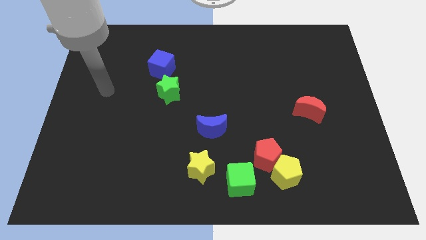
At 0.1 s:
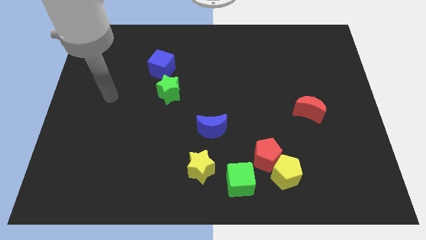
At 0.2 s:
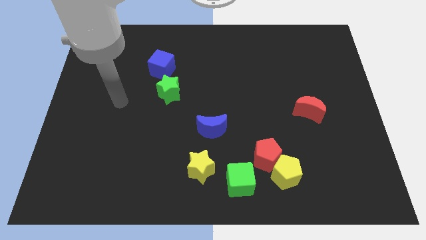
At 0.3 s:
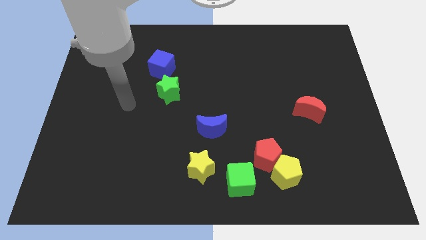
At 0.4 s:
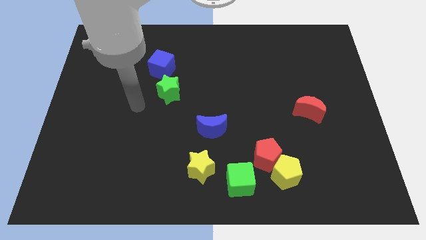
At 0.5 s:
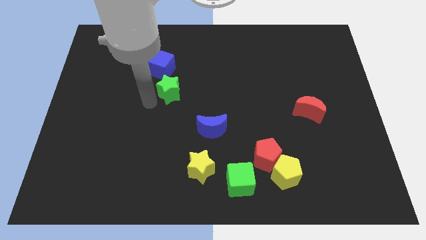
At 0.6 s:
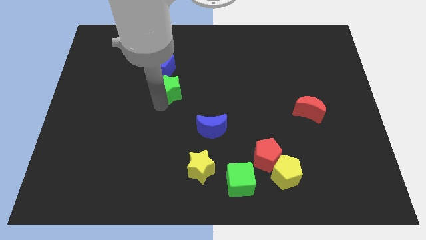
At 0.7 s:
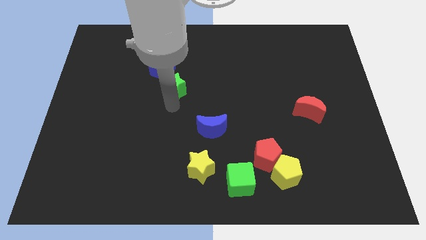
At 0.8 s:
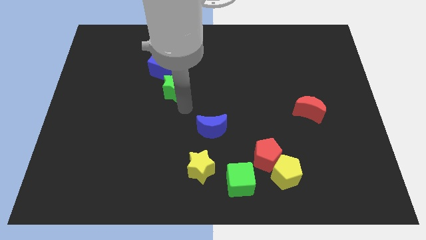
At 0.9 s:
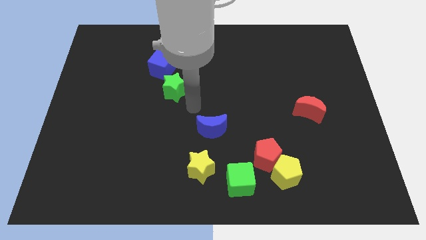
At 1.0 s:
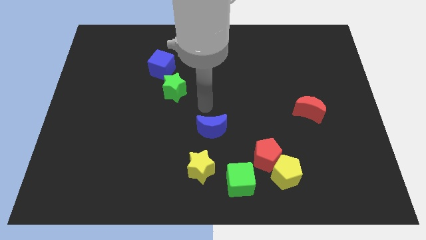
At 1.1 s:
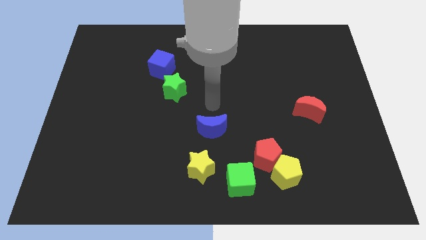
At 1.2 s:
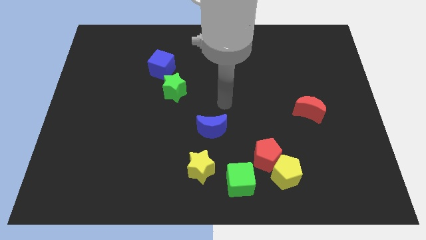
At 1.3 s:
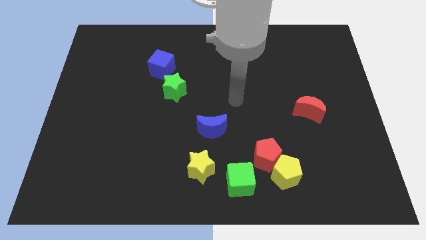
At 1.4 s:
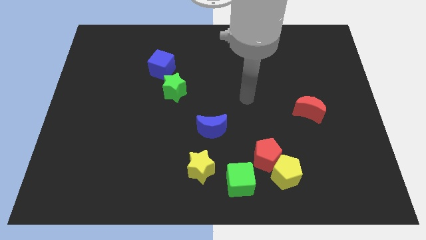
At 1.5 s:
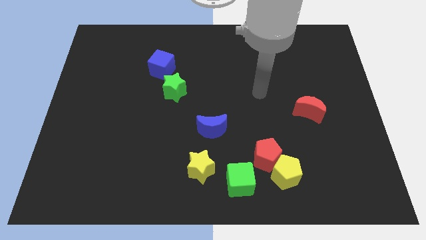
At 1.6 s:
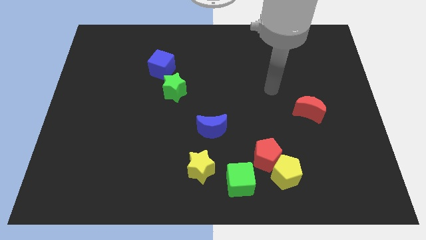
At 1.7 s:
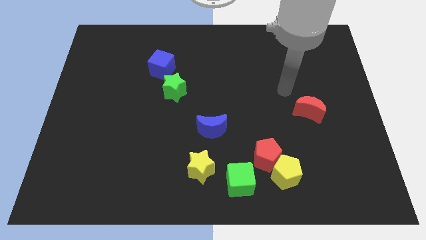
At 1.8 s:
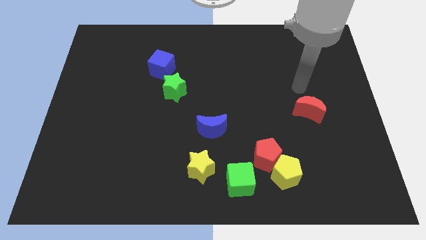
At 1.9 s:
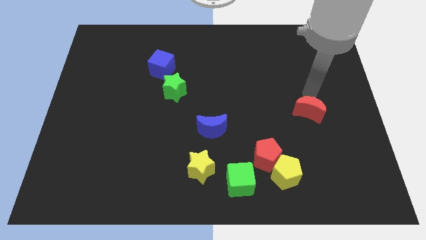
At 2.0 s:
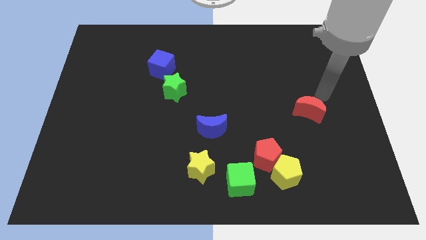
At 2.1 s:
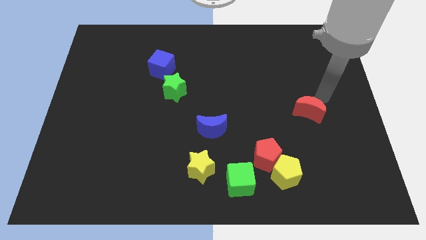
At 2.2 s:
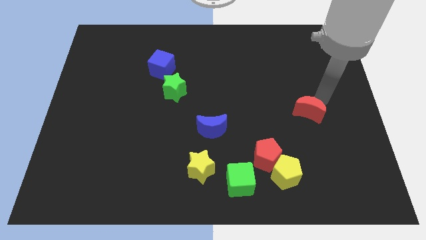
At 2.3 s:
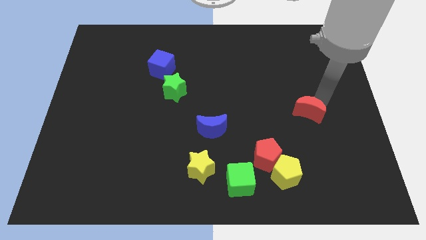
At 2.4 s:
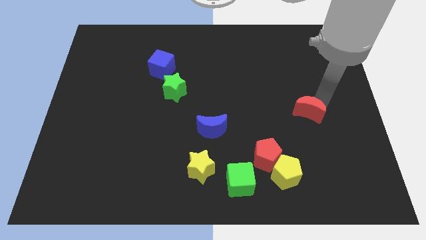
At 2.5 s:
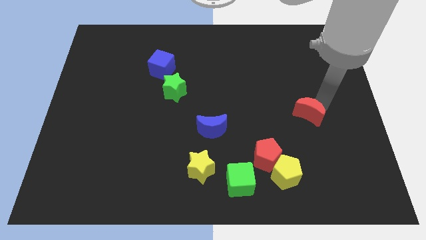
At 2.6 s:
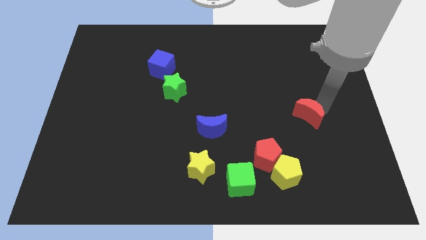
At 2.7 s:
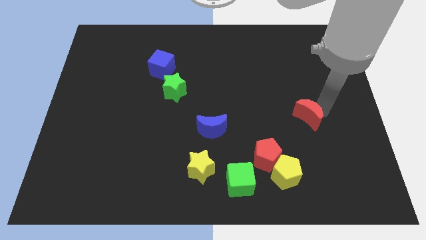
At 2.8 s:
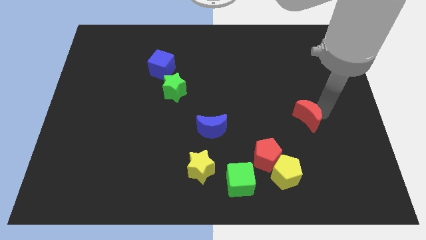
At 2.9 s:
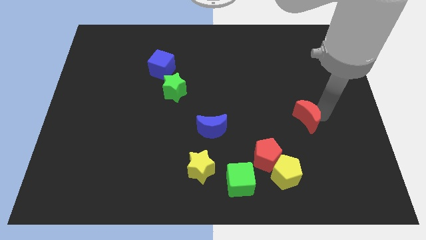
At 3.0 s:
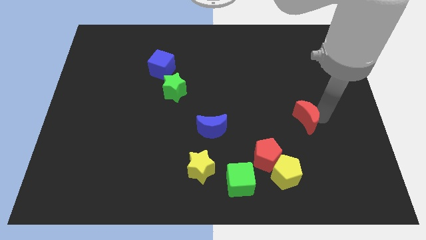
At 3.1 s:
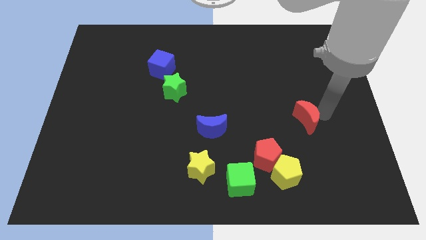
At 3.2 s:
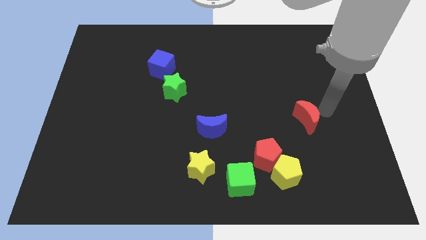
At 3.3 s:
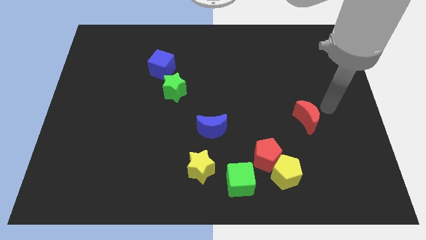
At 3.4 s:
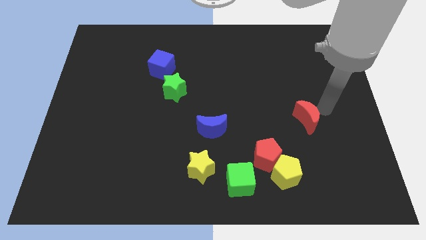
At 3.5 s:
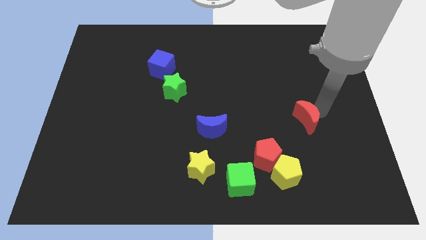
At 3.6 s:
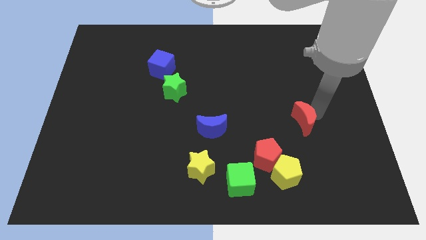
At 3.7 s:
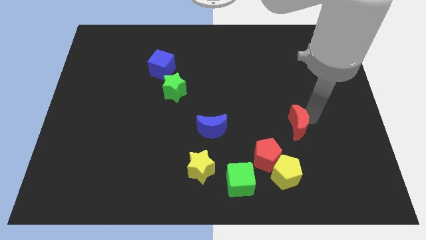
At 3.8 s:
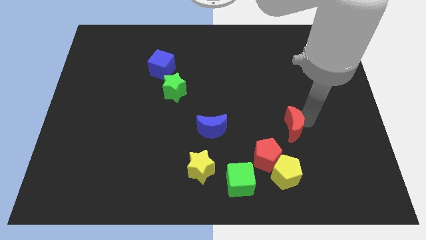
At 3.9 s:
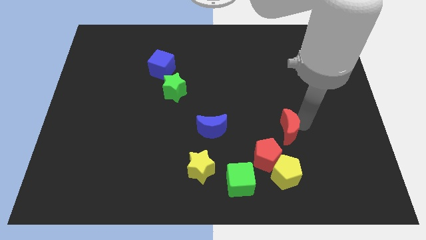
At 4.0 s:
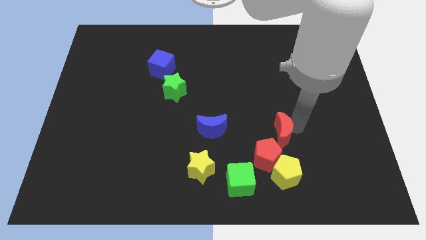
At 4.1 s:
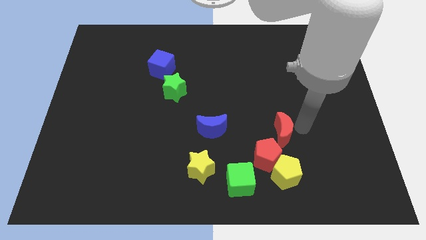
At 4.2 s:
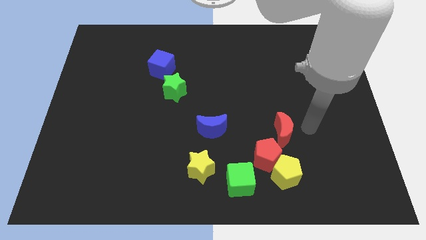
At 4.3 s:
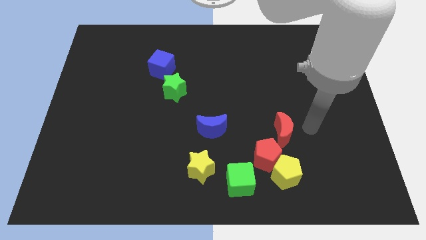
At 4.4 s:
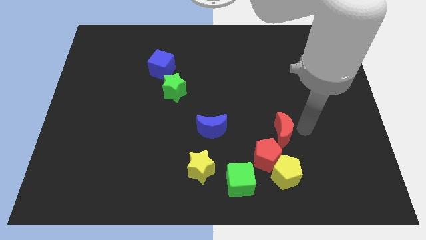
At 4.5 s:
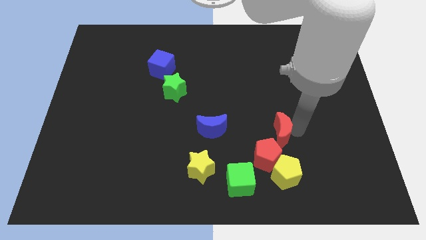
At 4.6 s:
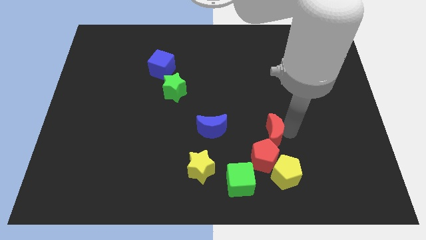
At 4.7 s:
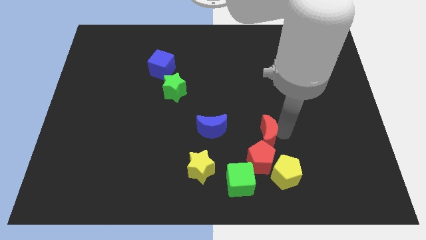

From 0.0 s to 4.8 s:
slide the red moon to the top left of the yellow pentagon

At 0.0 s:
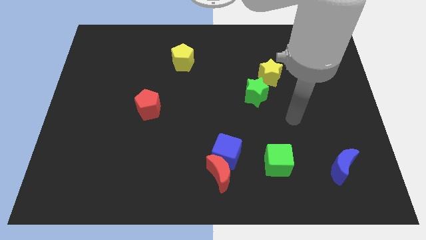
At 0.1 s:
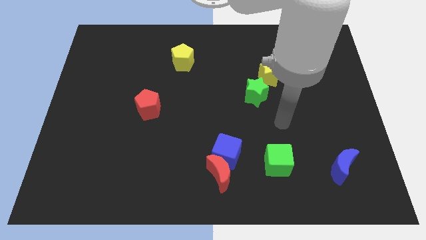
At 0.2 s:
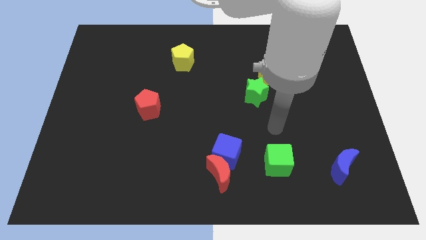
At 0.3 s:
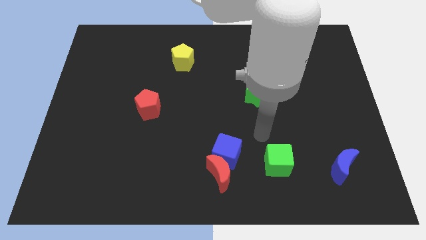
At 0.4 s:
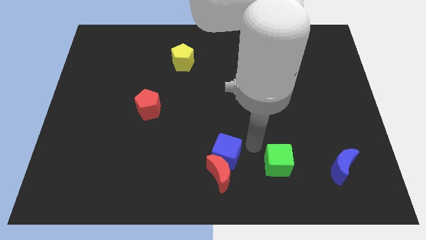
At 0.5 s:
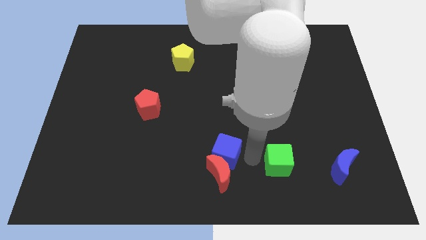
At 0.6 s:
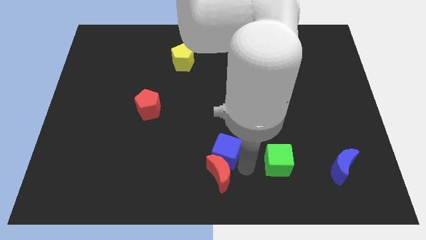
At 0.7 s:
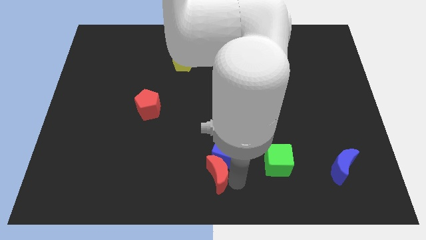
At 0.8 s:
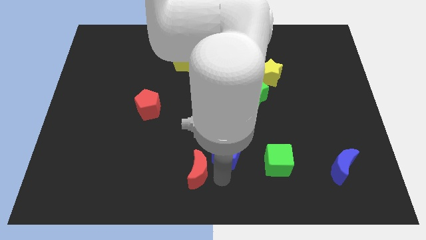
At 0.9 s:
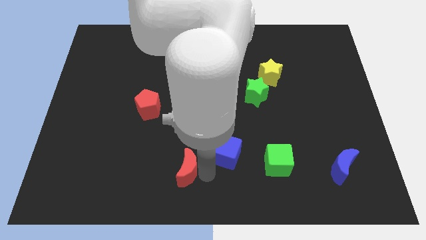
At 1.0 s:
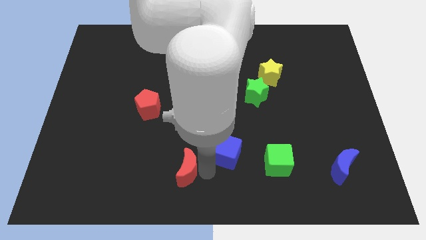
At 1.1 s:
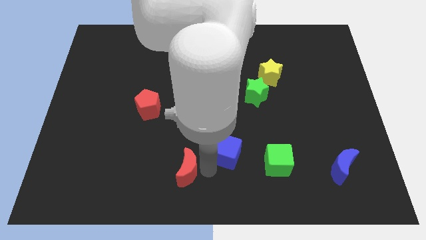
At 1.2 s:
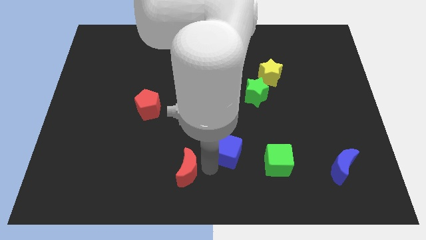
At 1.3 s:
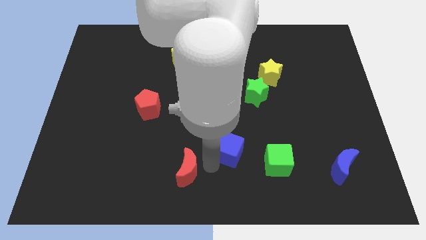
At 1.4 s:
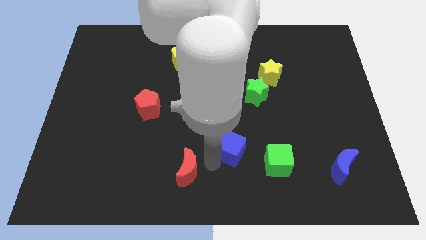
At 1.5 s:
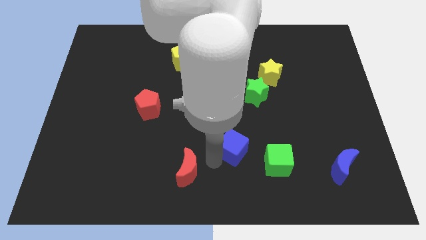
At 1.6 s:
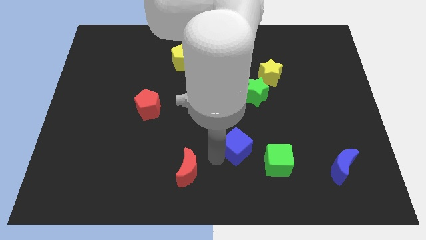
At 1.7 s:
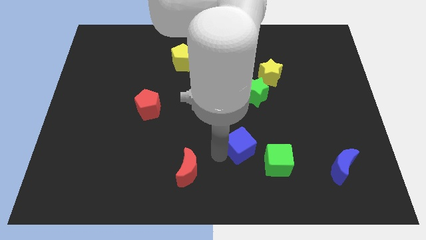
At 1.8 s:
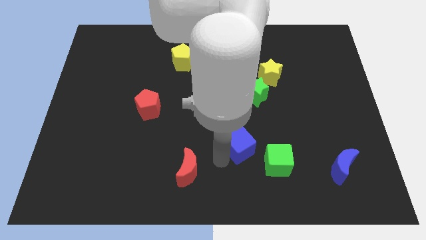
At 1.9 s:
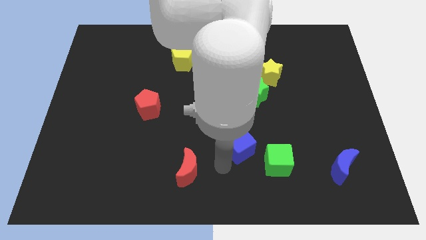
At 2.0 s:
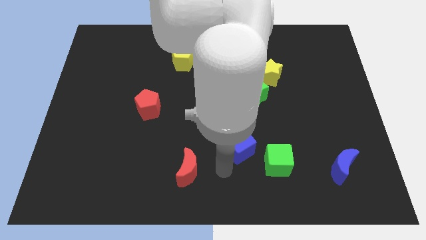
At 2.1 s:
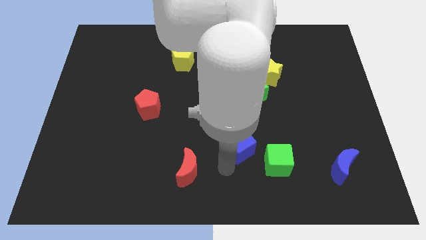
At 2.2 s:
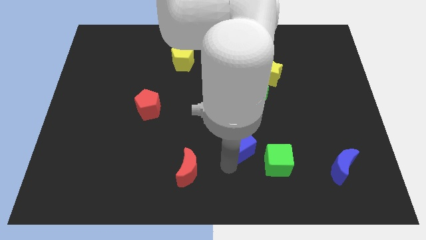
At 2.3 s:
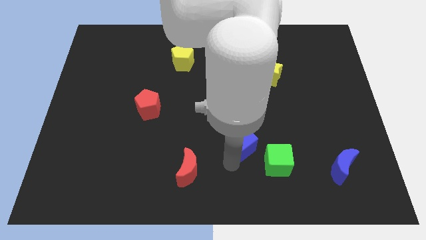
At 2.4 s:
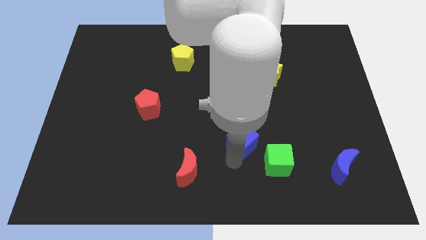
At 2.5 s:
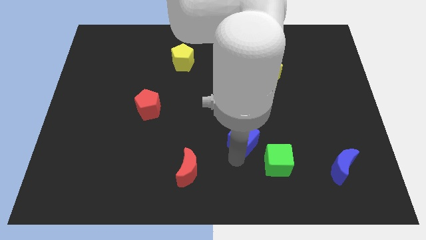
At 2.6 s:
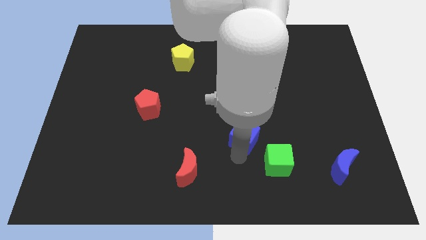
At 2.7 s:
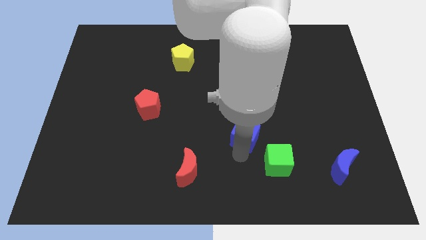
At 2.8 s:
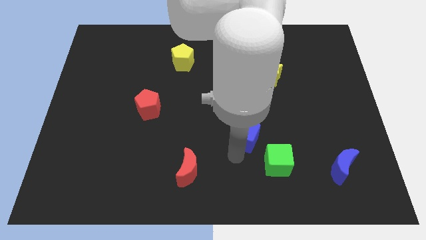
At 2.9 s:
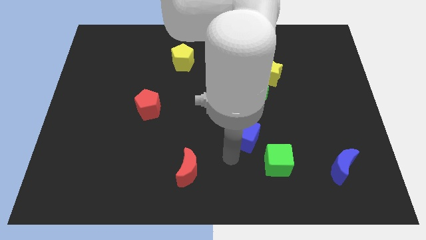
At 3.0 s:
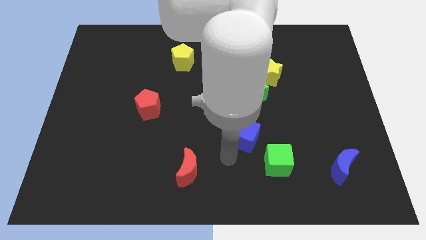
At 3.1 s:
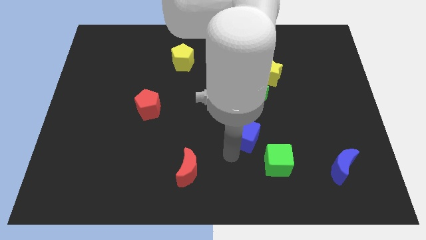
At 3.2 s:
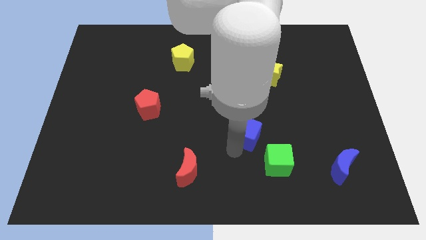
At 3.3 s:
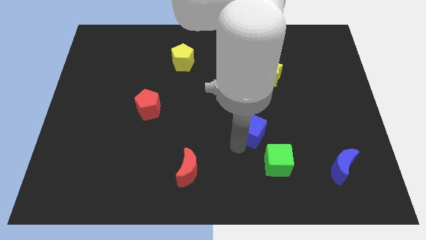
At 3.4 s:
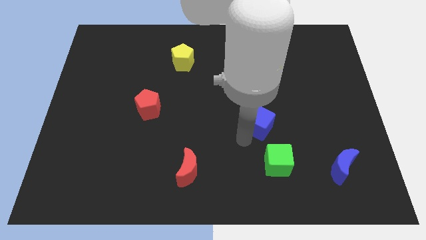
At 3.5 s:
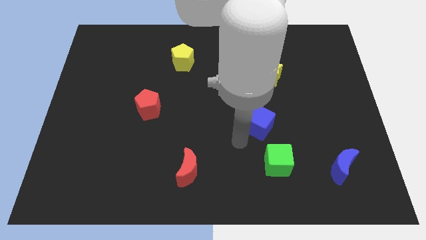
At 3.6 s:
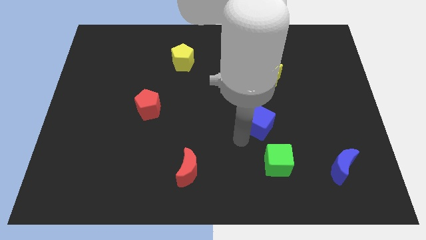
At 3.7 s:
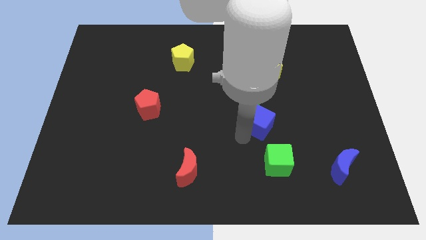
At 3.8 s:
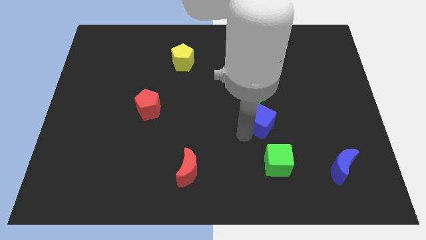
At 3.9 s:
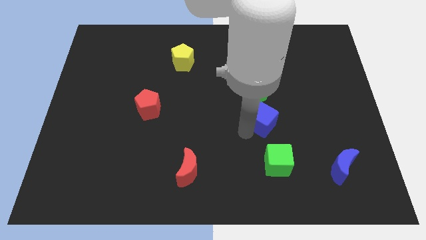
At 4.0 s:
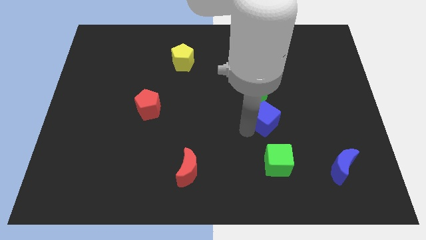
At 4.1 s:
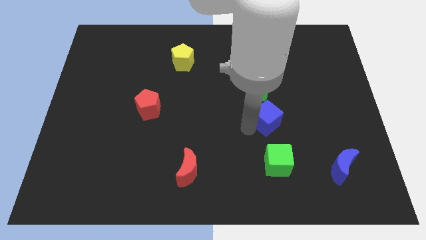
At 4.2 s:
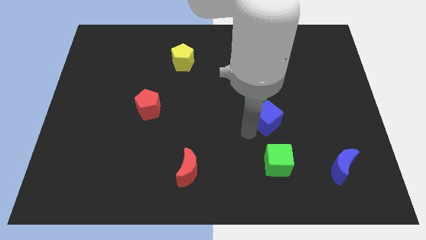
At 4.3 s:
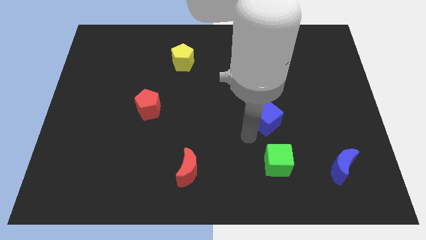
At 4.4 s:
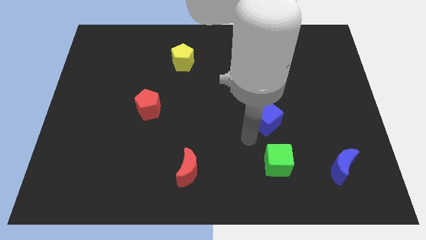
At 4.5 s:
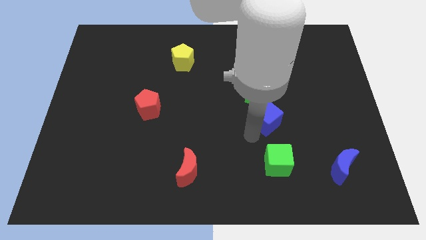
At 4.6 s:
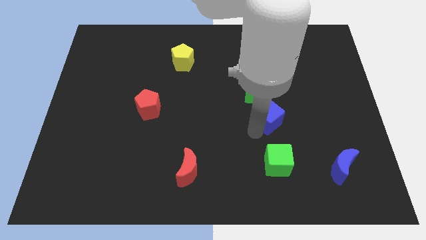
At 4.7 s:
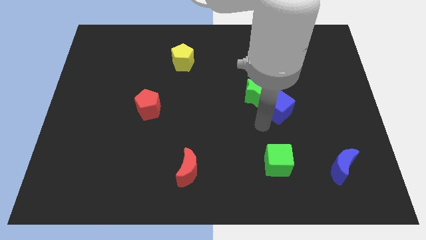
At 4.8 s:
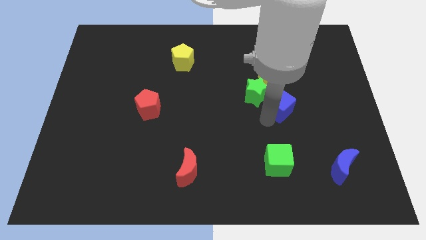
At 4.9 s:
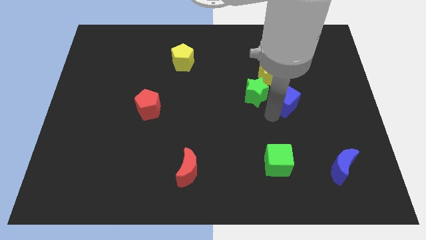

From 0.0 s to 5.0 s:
slide the blue cube to the bottom right of the yellow star
